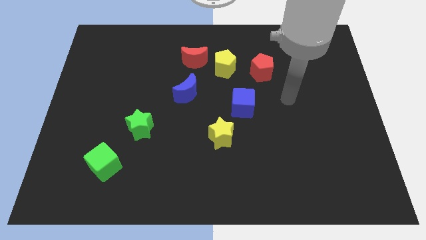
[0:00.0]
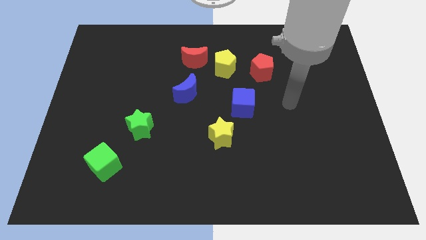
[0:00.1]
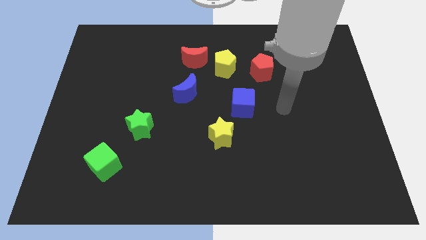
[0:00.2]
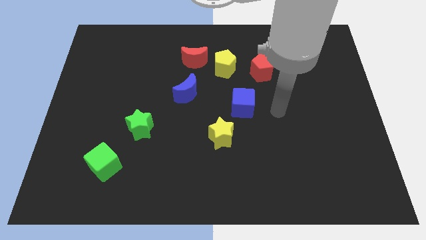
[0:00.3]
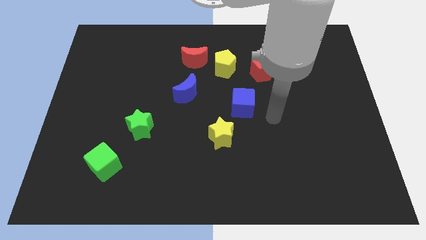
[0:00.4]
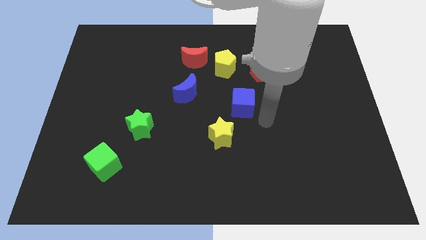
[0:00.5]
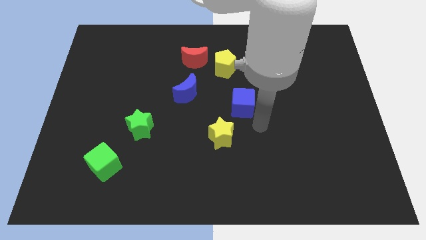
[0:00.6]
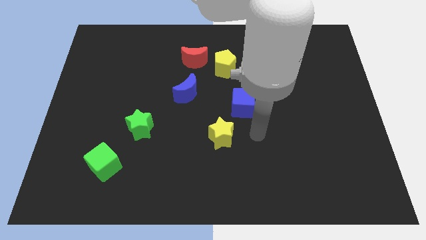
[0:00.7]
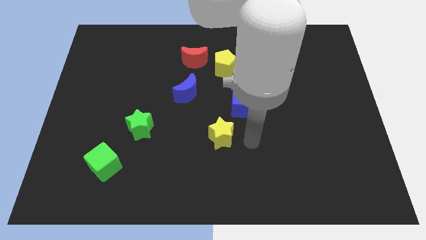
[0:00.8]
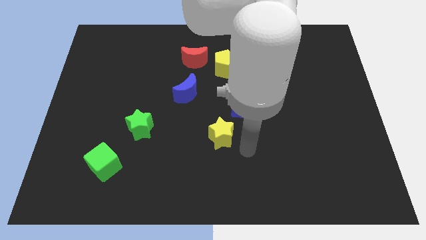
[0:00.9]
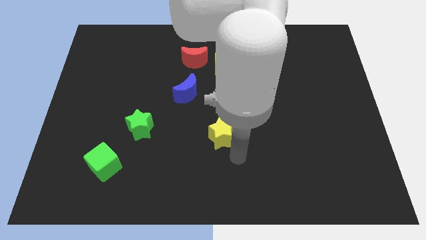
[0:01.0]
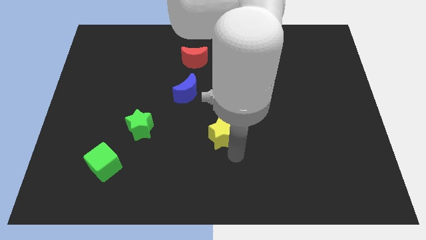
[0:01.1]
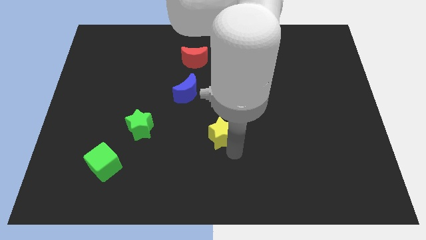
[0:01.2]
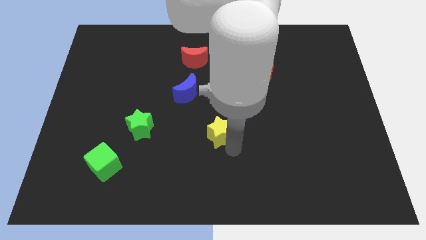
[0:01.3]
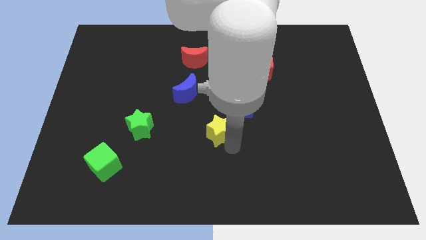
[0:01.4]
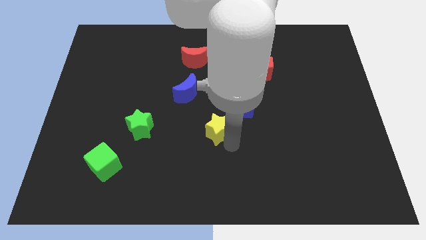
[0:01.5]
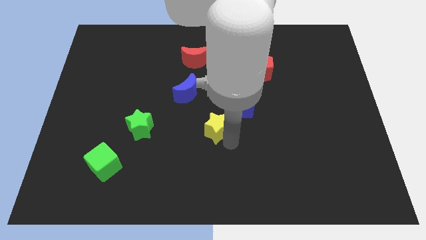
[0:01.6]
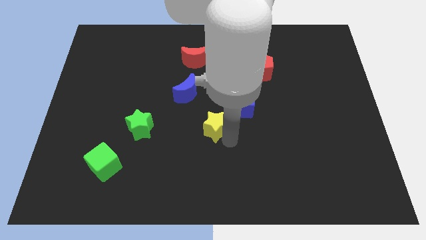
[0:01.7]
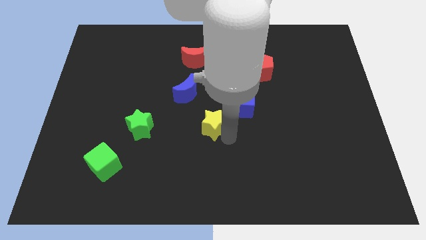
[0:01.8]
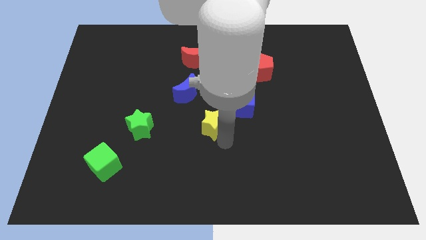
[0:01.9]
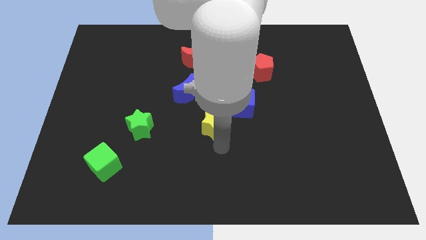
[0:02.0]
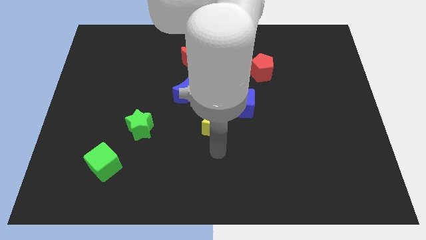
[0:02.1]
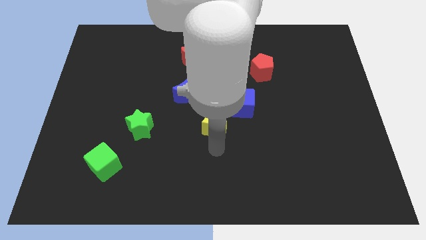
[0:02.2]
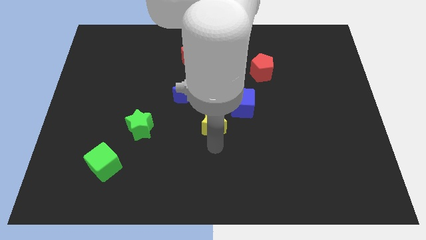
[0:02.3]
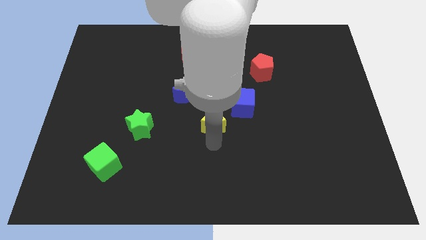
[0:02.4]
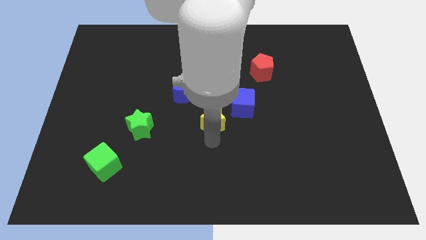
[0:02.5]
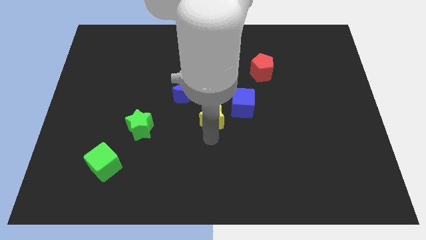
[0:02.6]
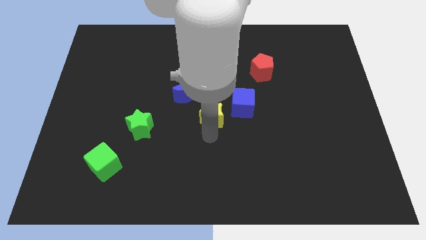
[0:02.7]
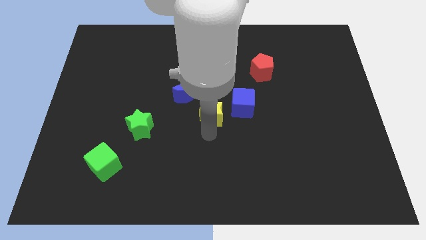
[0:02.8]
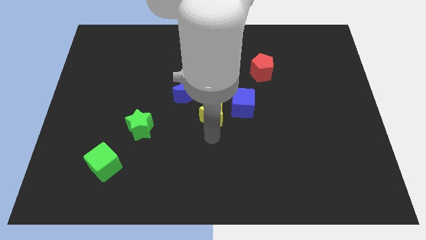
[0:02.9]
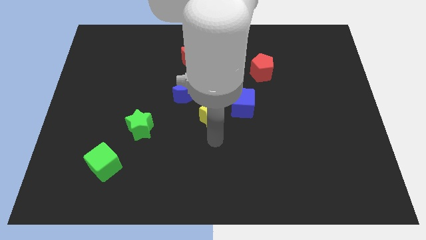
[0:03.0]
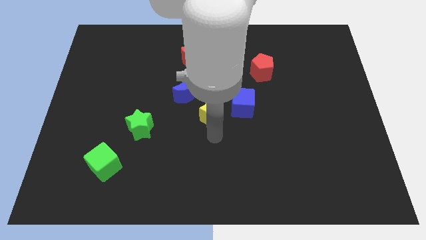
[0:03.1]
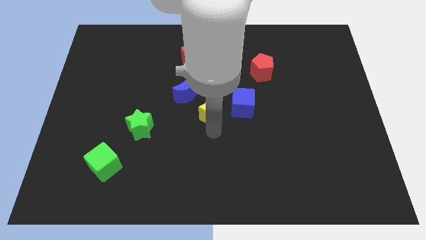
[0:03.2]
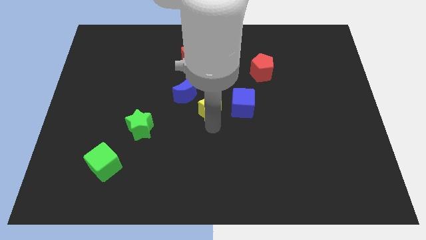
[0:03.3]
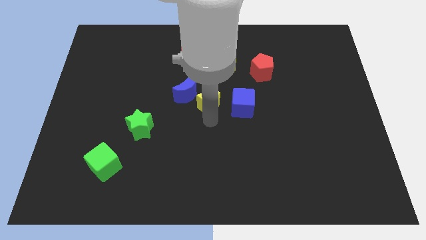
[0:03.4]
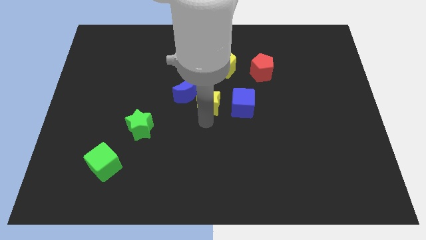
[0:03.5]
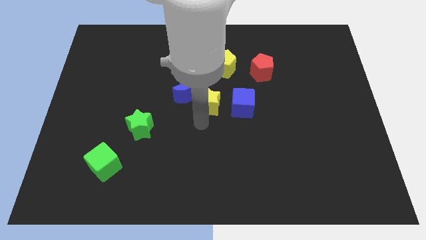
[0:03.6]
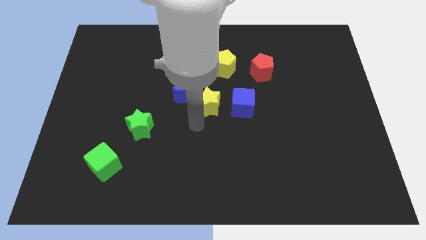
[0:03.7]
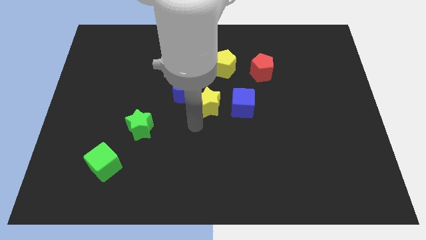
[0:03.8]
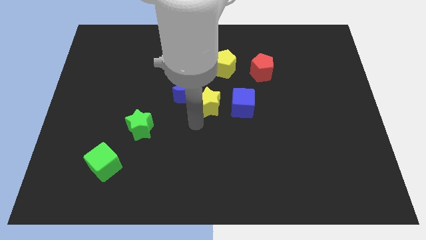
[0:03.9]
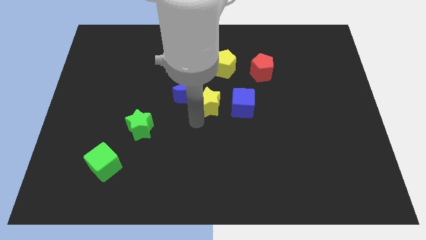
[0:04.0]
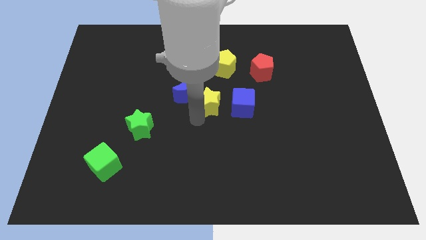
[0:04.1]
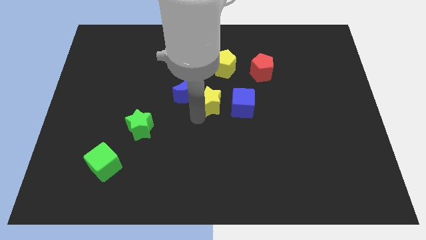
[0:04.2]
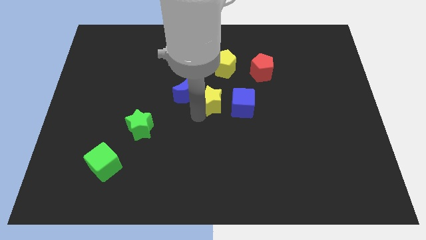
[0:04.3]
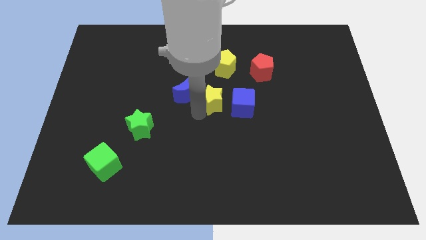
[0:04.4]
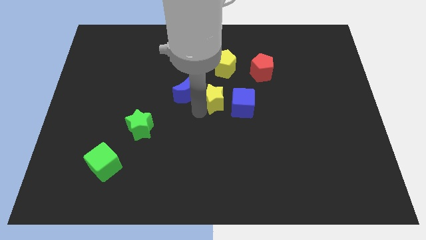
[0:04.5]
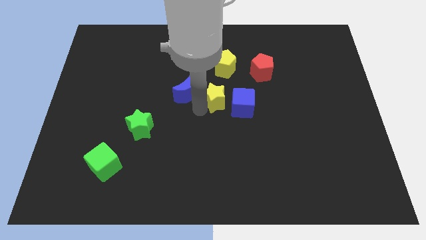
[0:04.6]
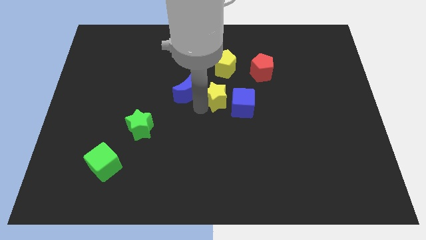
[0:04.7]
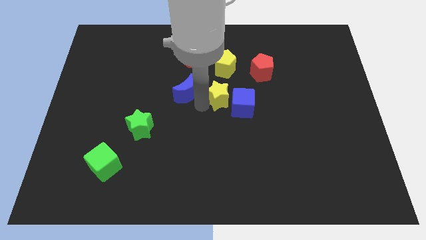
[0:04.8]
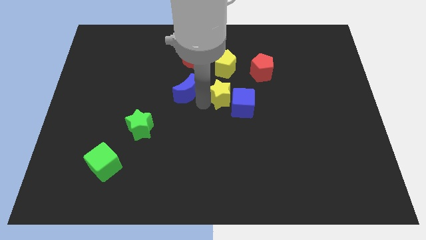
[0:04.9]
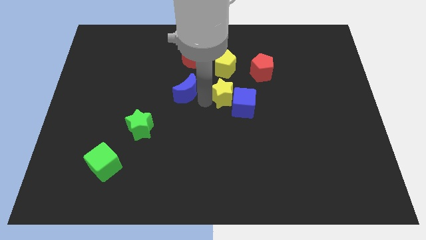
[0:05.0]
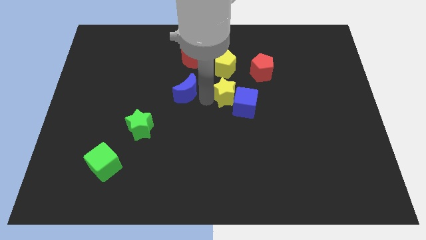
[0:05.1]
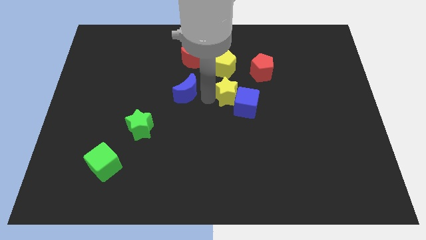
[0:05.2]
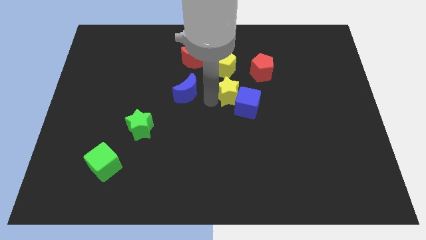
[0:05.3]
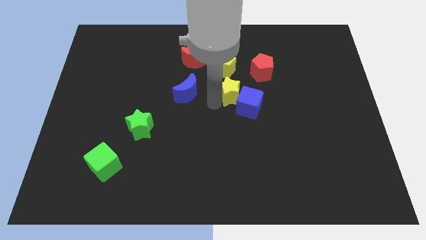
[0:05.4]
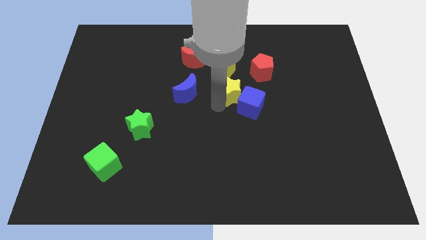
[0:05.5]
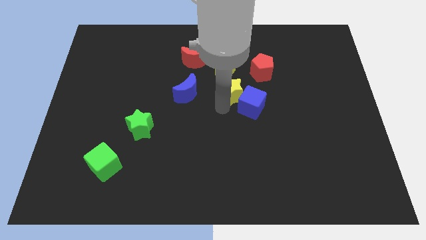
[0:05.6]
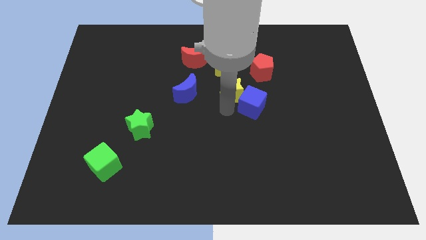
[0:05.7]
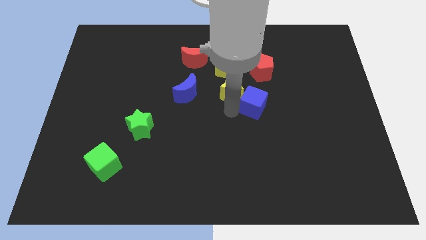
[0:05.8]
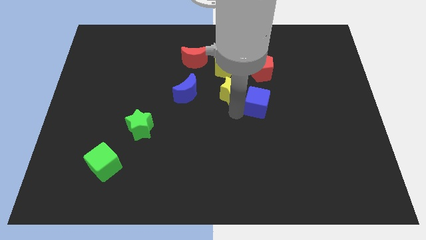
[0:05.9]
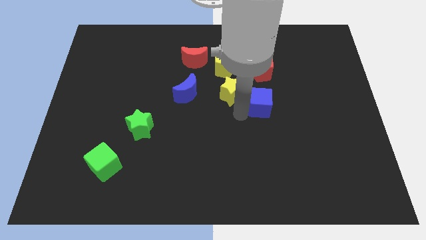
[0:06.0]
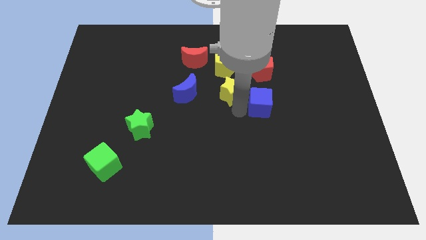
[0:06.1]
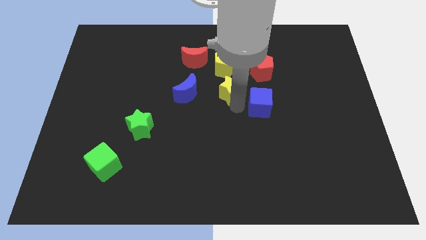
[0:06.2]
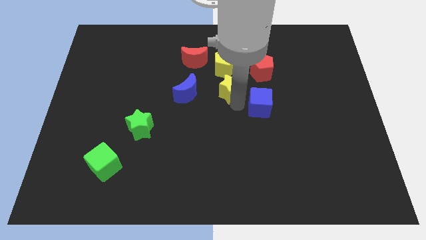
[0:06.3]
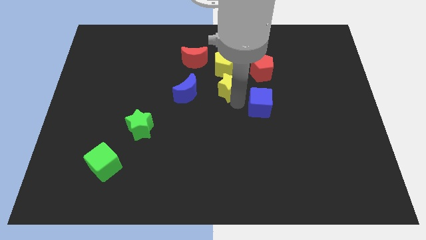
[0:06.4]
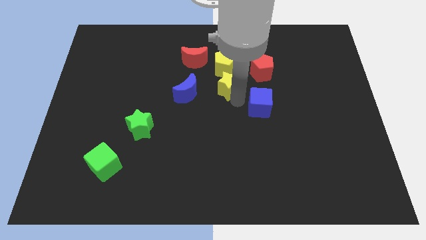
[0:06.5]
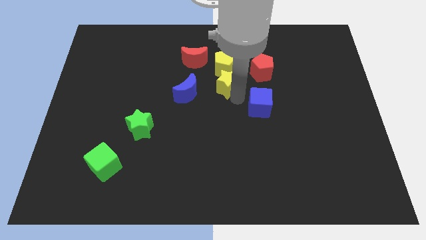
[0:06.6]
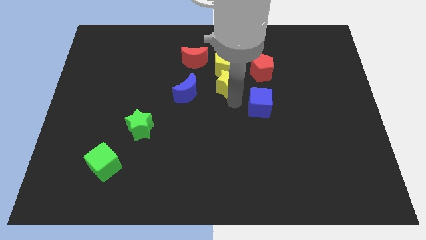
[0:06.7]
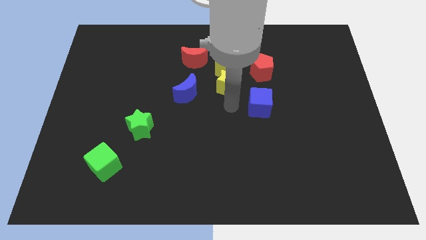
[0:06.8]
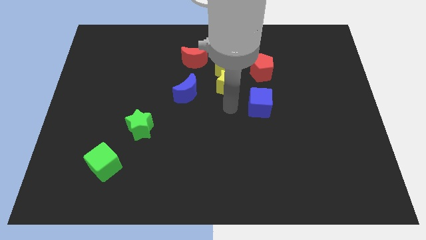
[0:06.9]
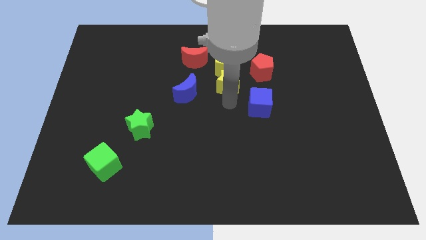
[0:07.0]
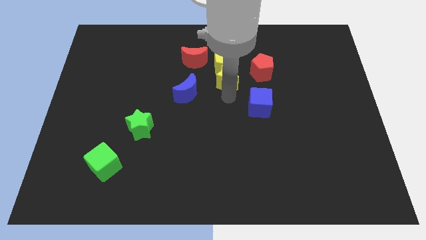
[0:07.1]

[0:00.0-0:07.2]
slide the yellow star to the yellow pentagon
